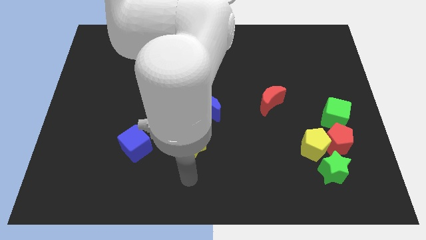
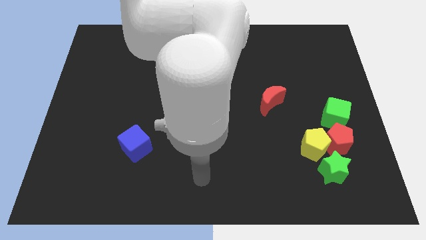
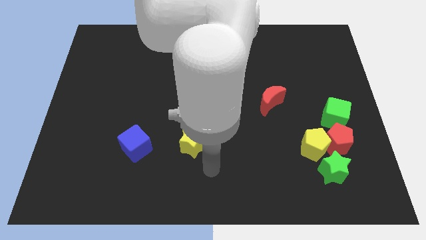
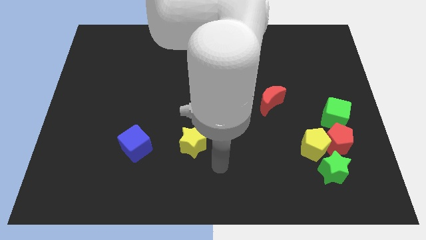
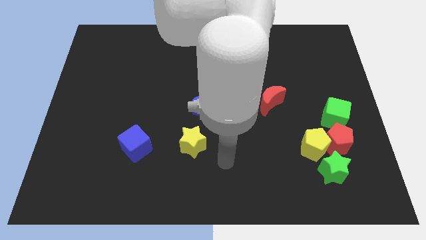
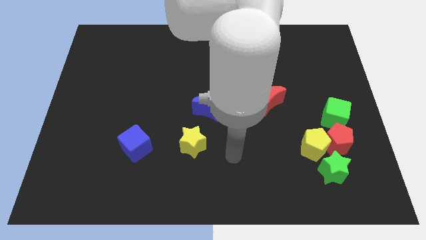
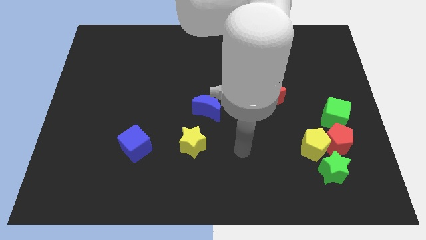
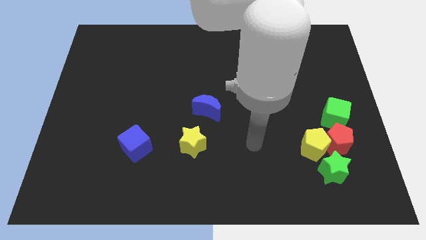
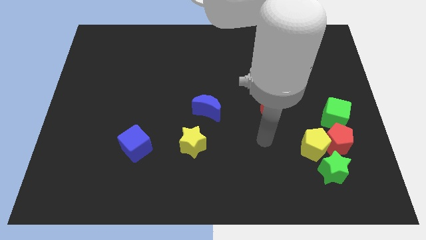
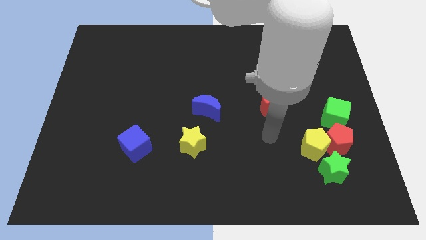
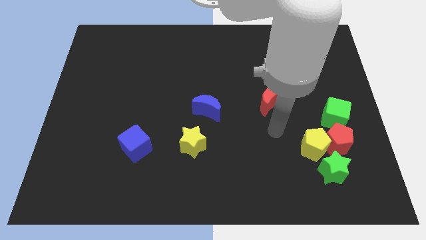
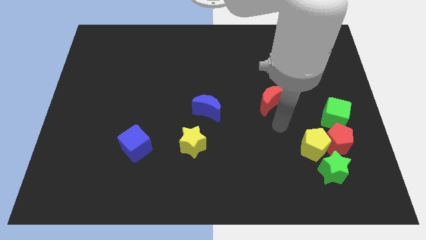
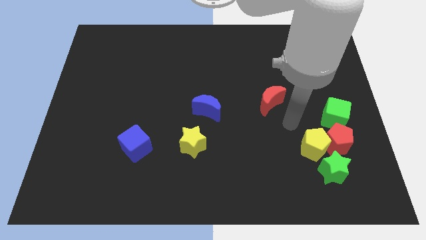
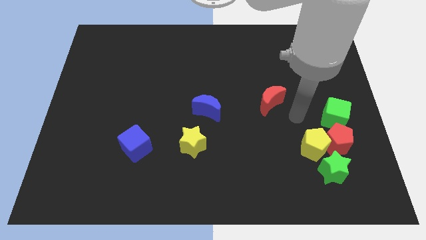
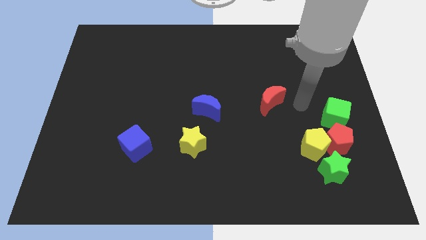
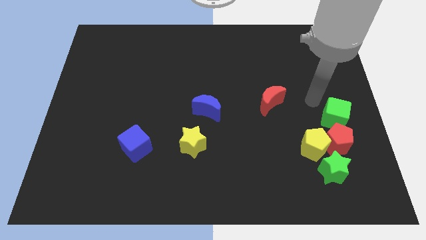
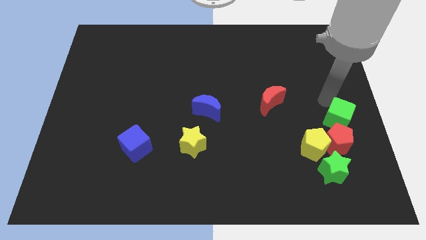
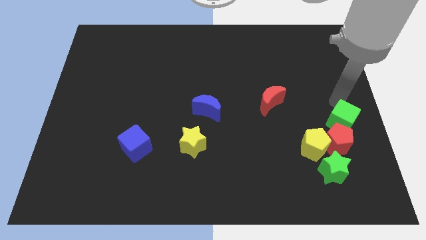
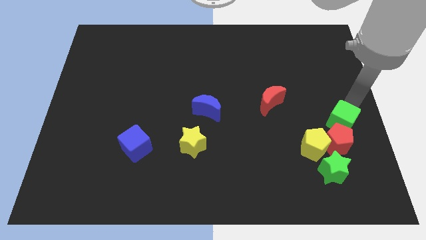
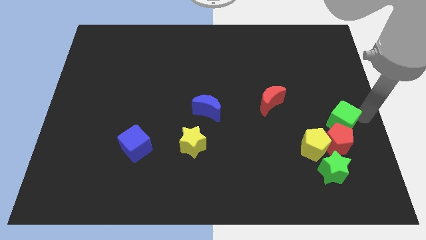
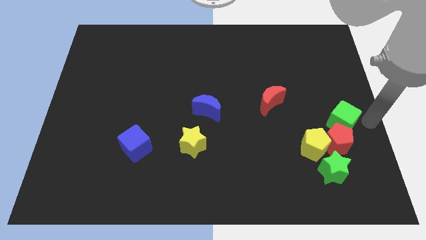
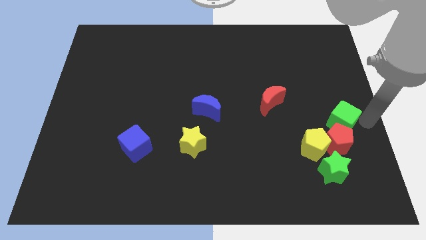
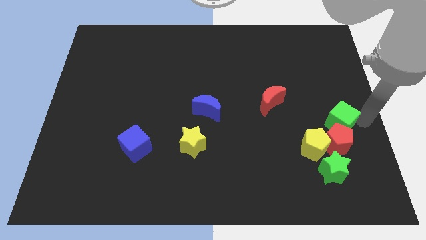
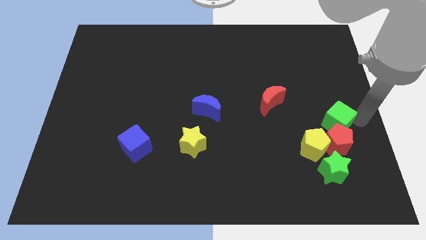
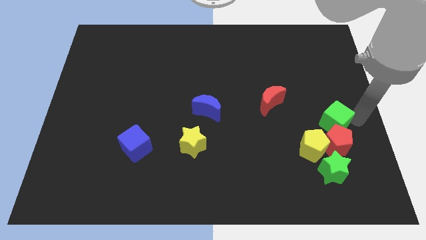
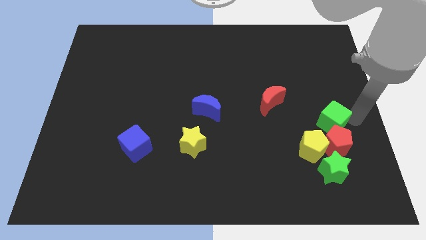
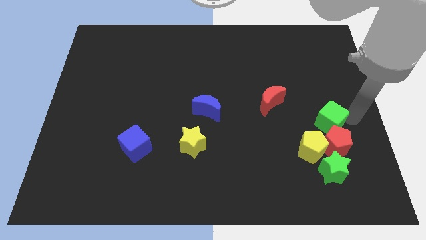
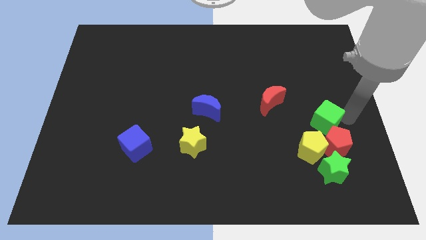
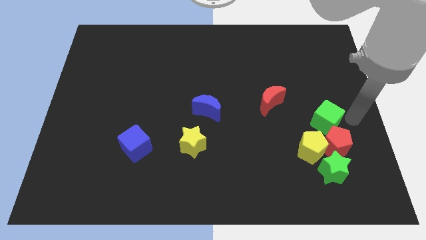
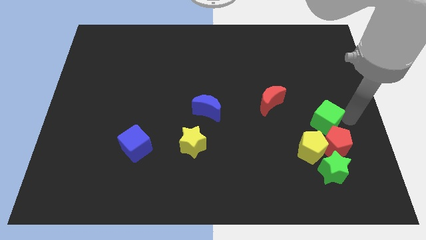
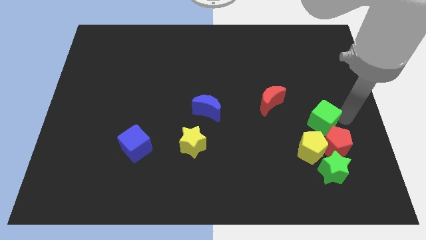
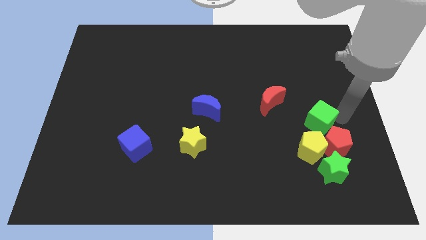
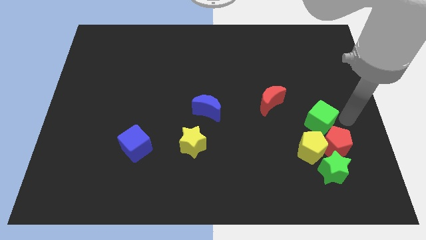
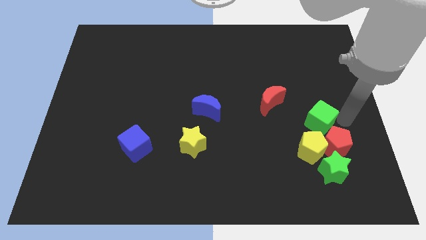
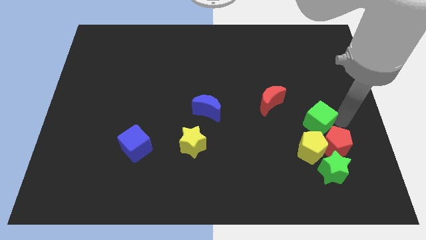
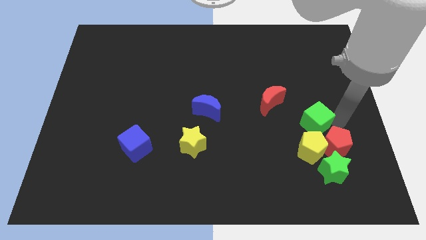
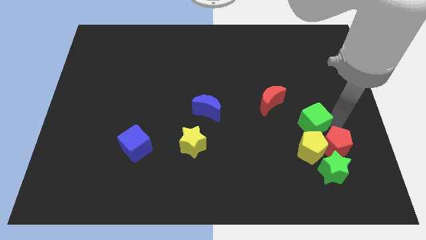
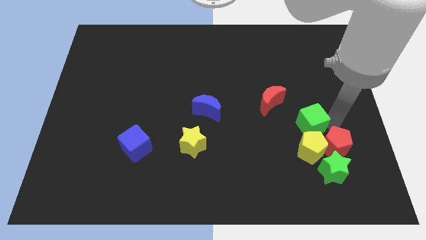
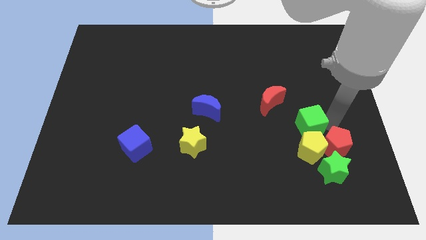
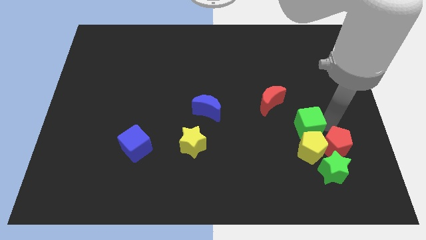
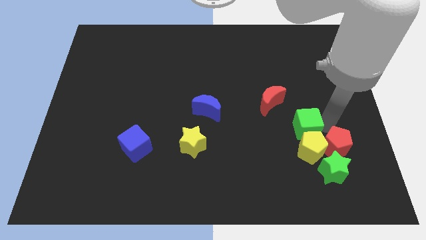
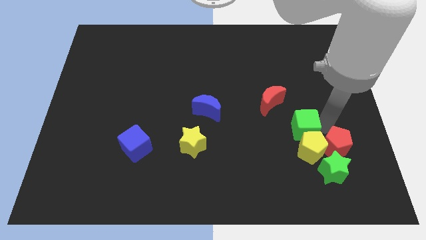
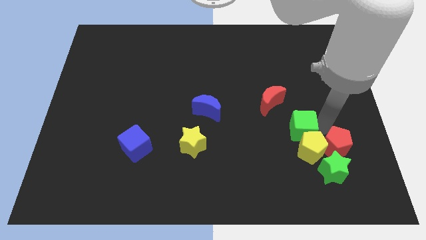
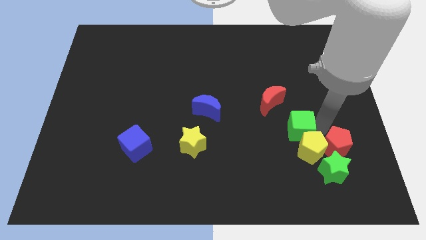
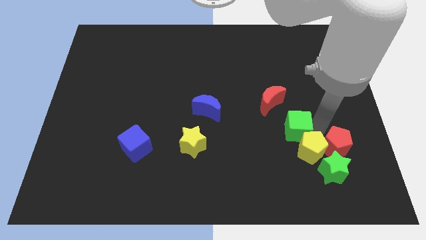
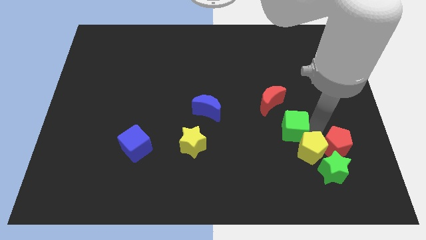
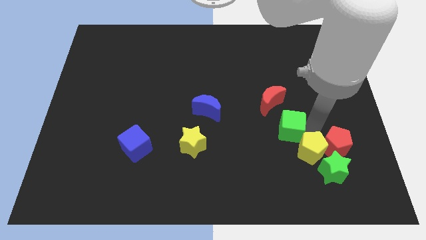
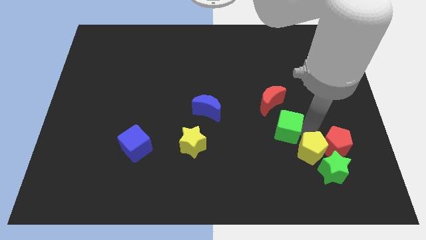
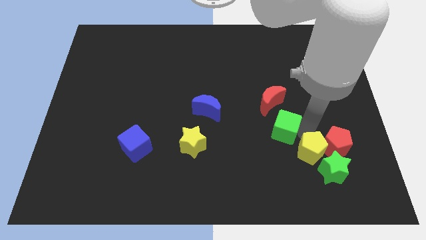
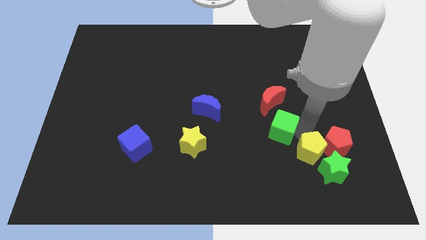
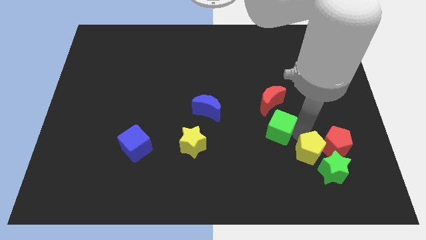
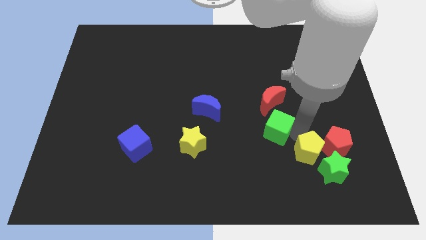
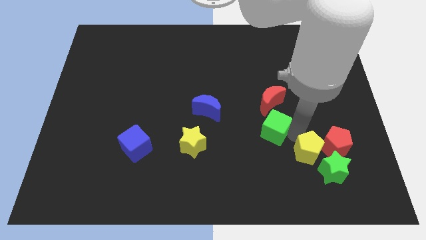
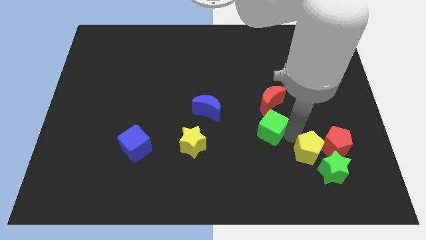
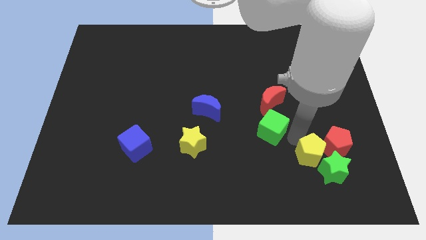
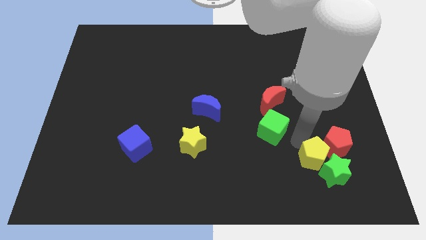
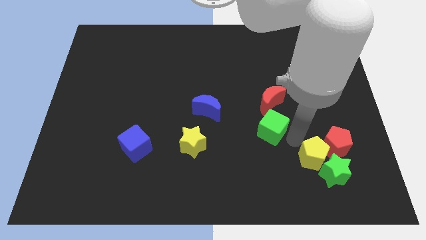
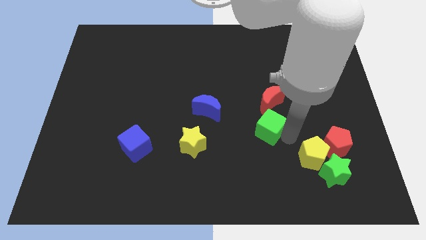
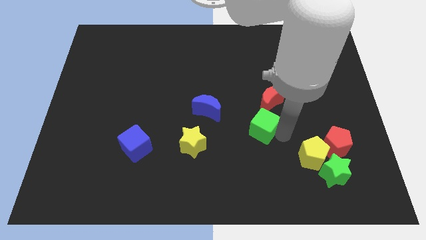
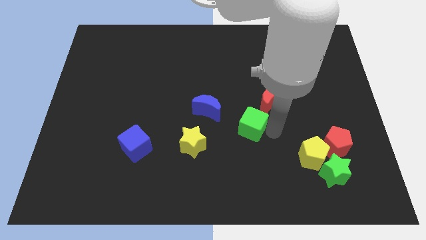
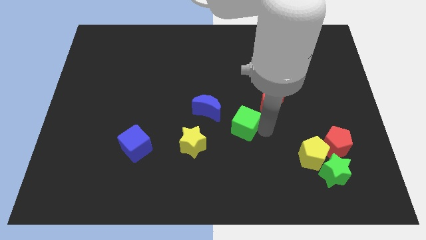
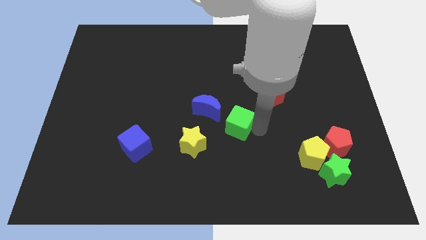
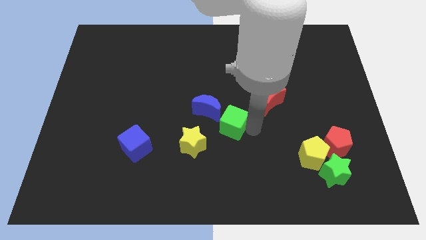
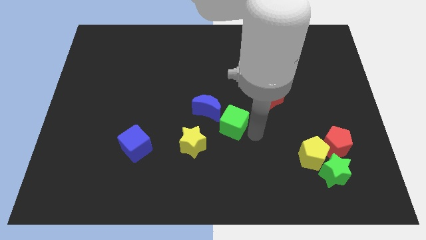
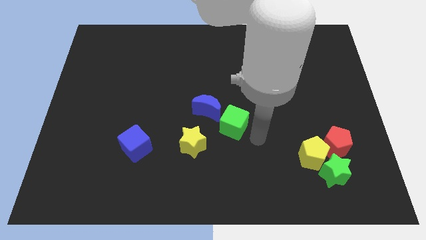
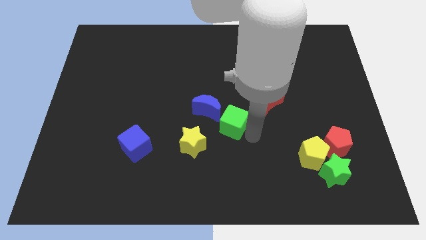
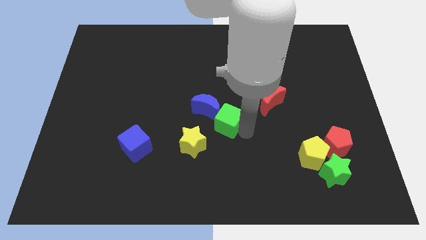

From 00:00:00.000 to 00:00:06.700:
move the green cube towards the blue moon

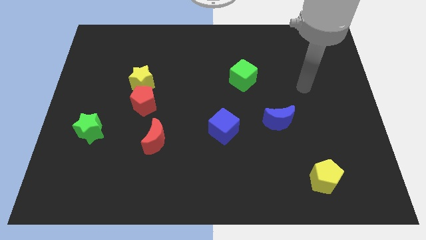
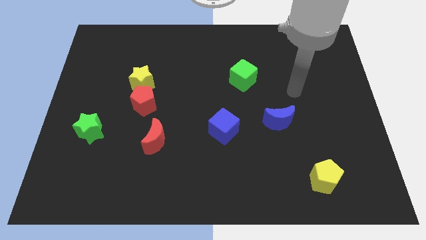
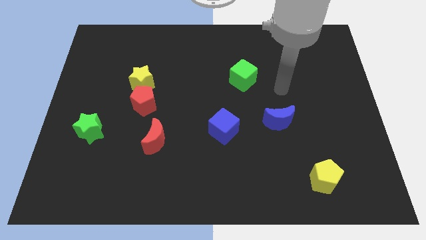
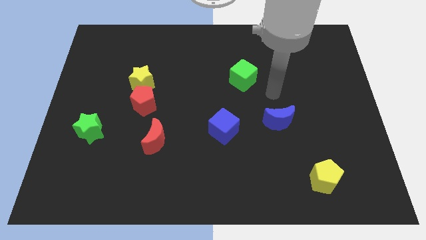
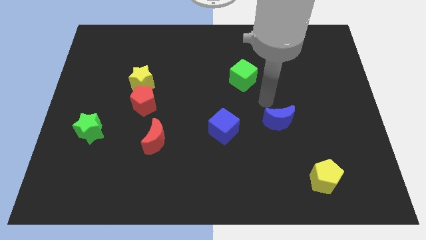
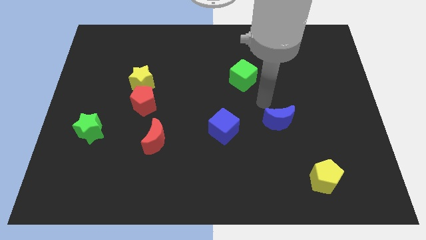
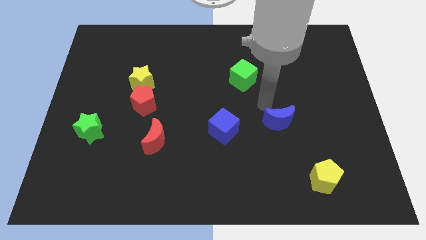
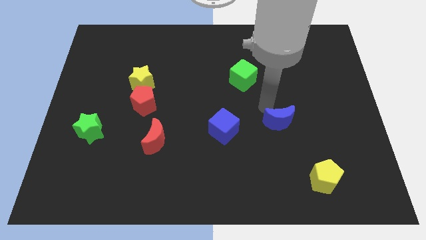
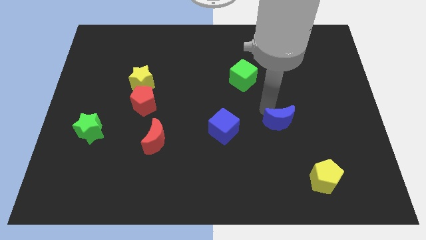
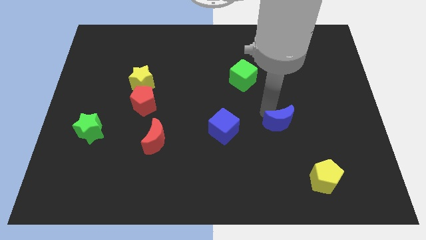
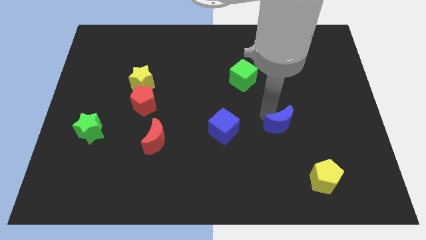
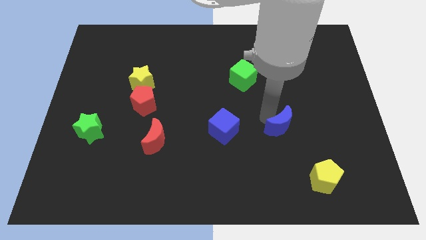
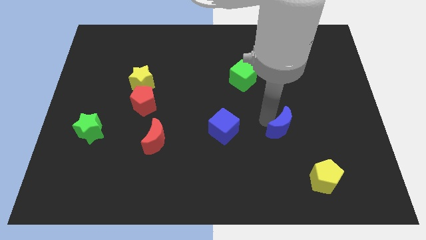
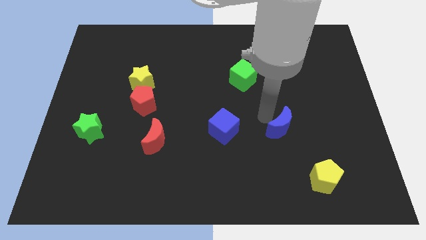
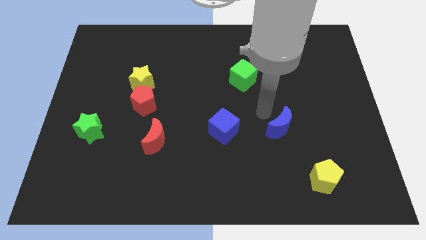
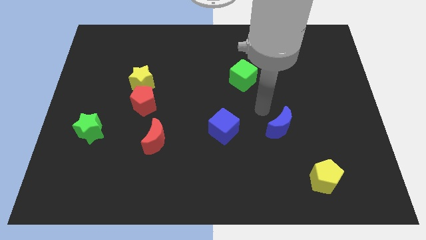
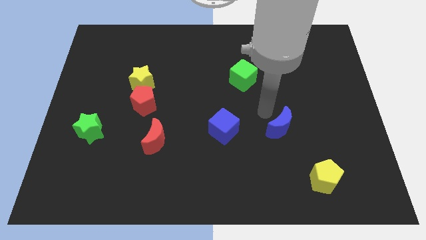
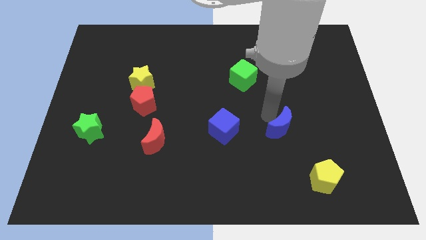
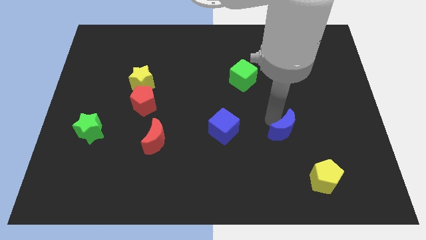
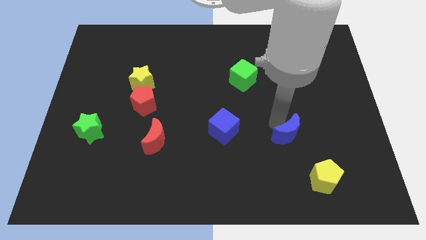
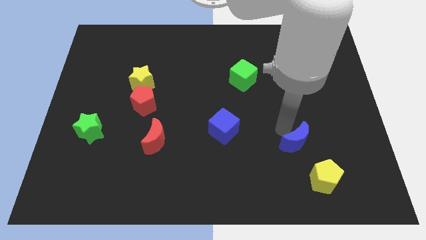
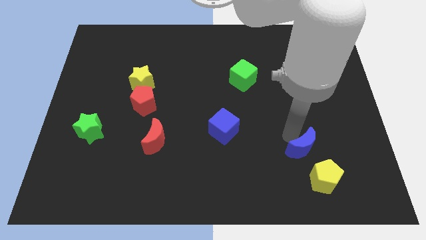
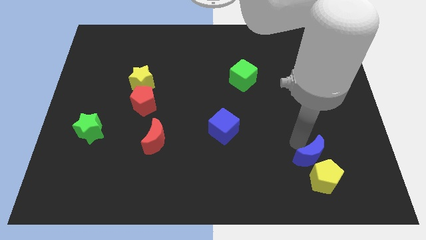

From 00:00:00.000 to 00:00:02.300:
slide the blue moon towards the yellow pentagon
